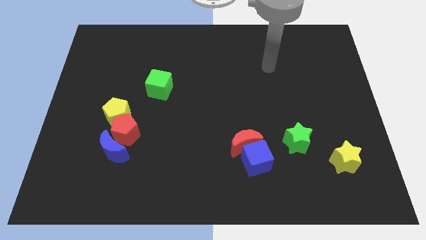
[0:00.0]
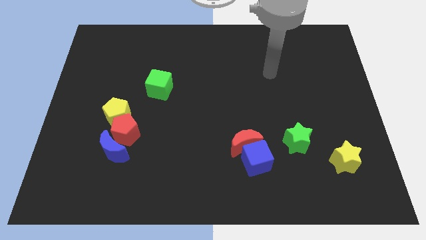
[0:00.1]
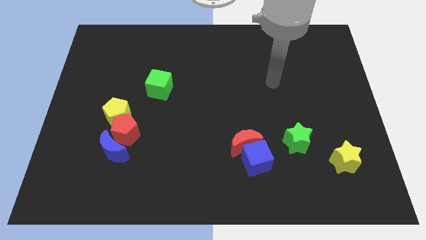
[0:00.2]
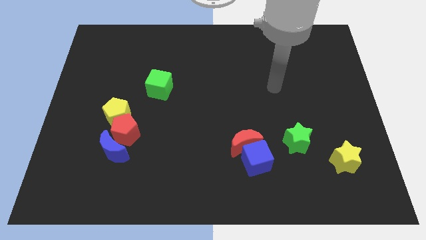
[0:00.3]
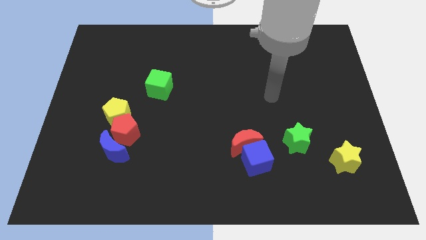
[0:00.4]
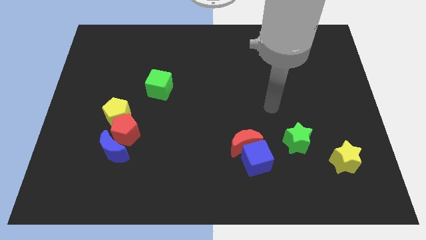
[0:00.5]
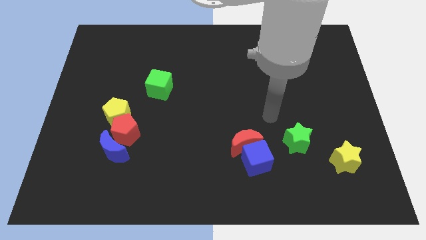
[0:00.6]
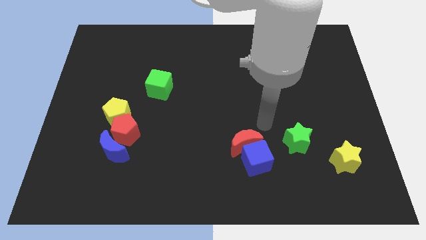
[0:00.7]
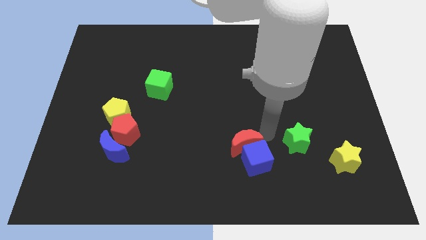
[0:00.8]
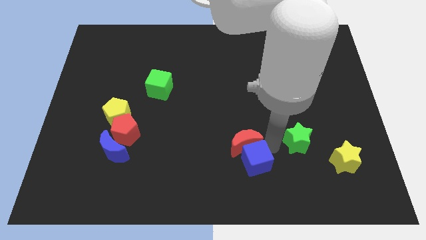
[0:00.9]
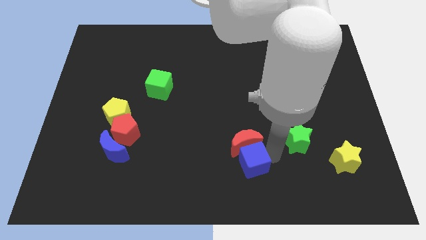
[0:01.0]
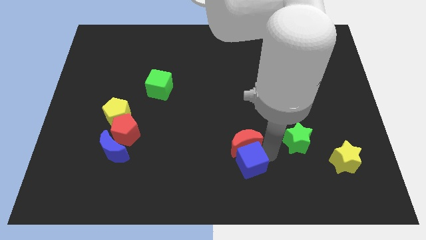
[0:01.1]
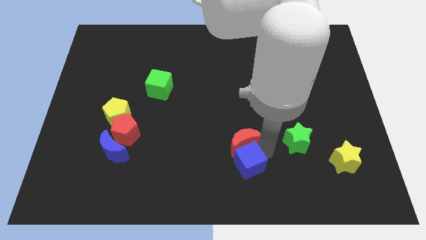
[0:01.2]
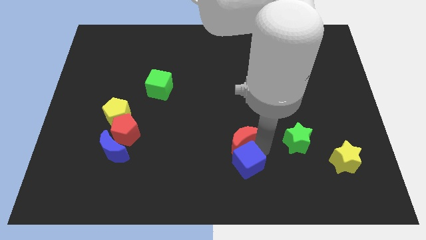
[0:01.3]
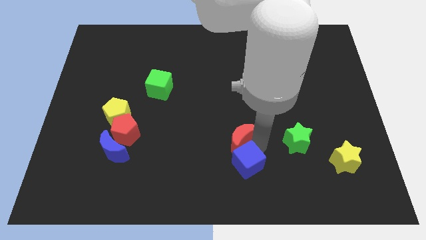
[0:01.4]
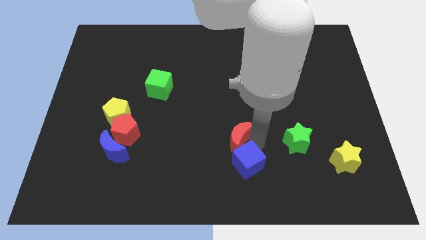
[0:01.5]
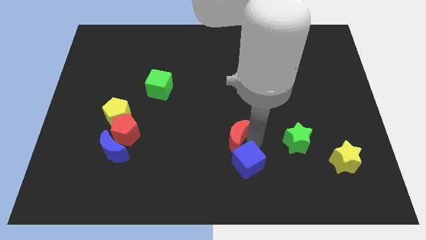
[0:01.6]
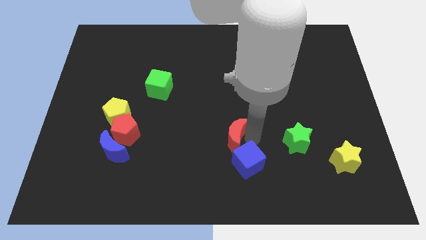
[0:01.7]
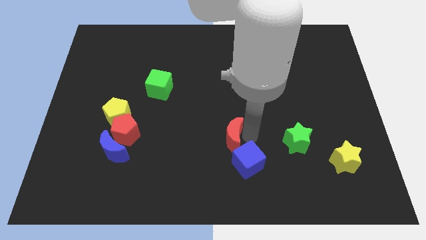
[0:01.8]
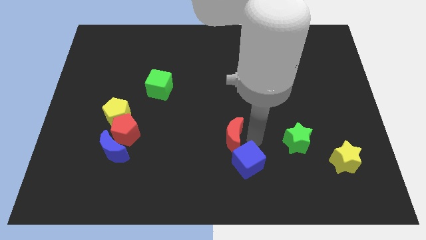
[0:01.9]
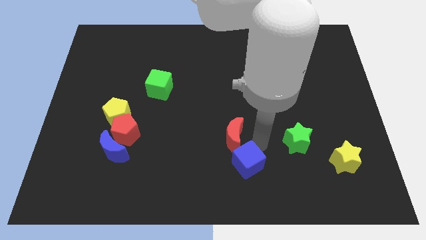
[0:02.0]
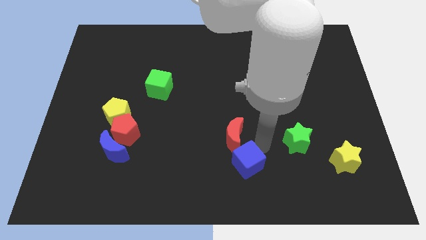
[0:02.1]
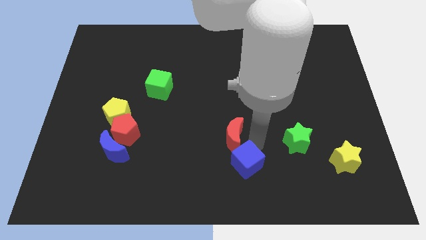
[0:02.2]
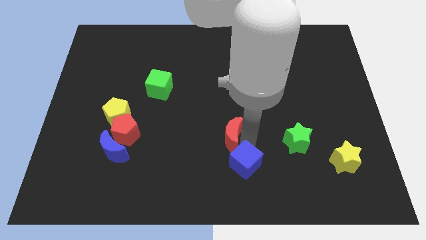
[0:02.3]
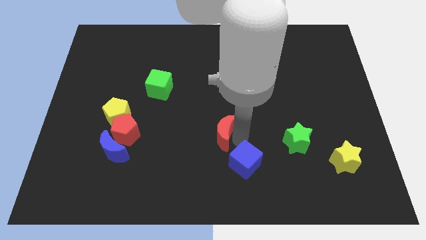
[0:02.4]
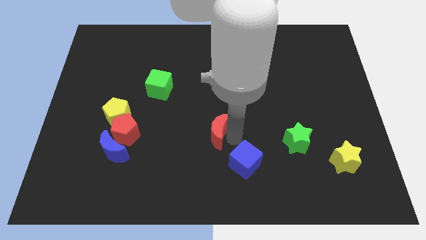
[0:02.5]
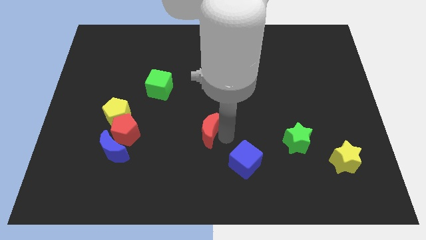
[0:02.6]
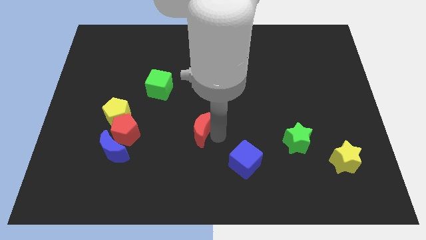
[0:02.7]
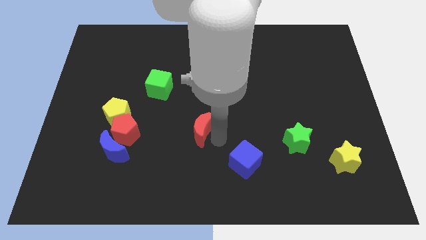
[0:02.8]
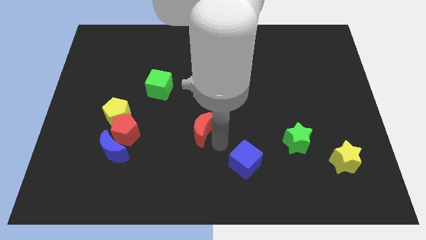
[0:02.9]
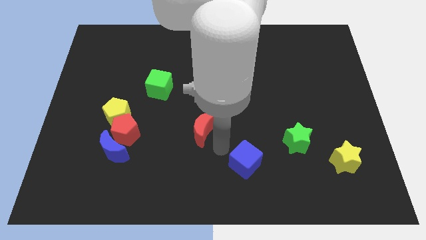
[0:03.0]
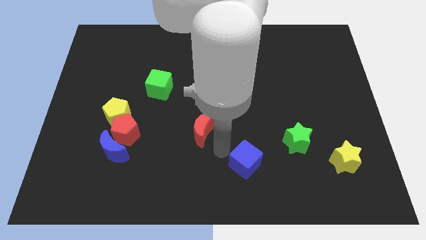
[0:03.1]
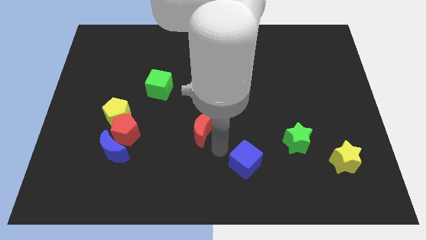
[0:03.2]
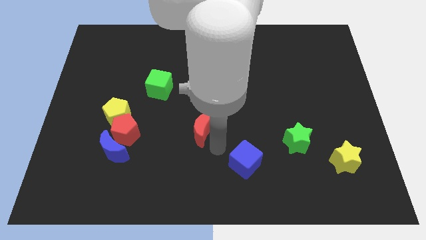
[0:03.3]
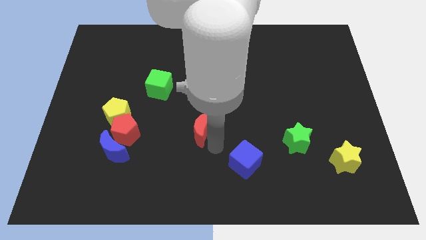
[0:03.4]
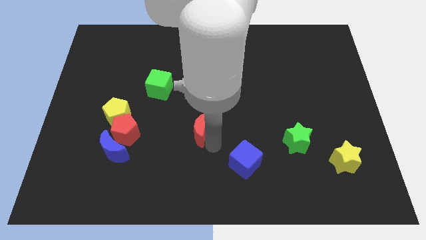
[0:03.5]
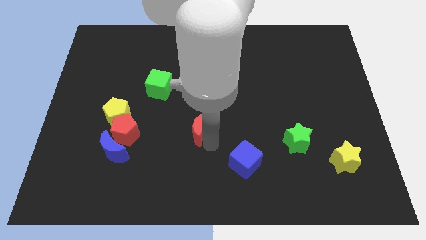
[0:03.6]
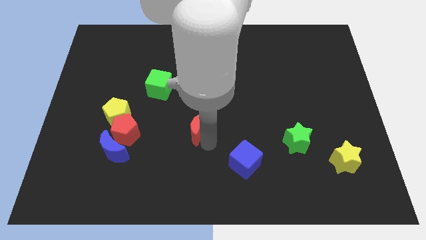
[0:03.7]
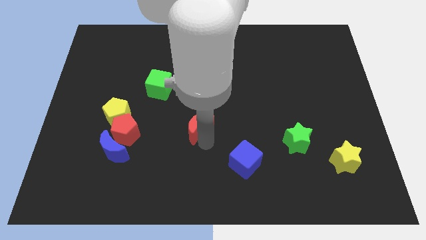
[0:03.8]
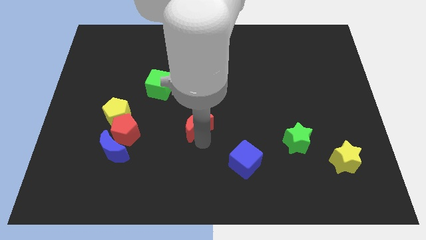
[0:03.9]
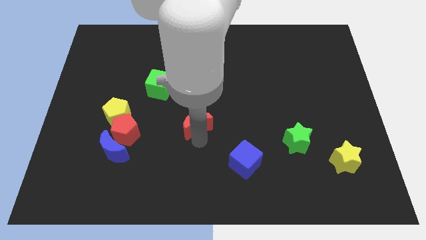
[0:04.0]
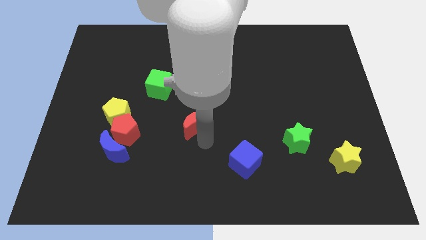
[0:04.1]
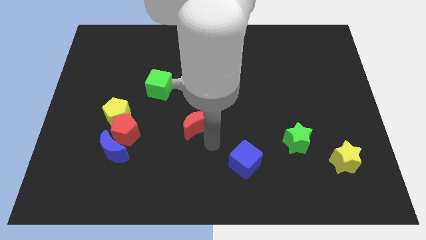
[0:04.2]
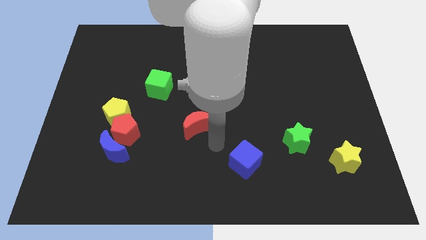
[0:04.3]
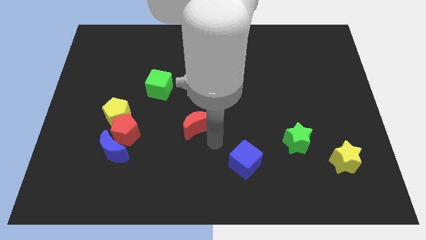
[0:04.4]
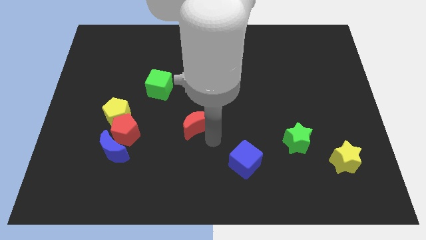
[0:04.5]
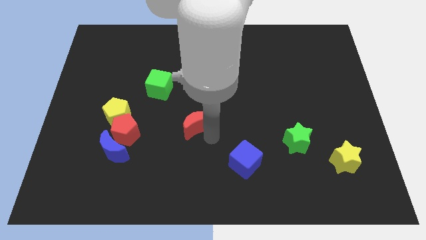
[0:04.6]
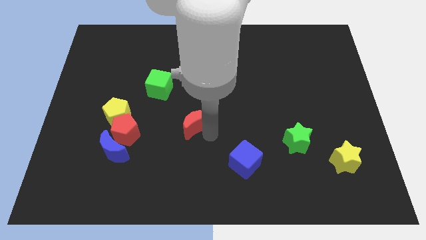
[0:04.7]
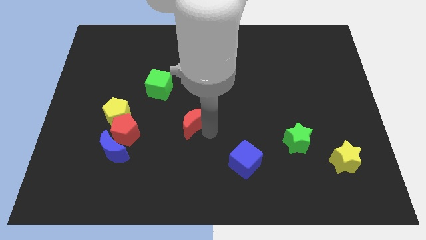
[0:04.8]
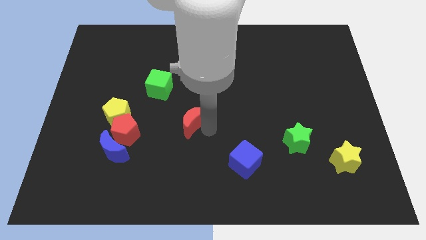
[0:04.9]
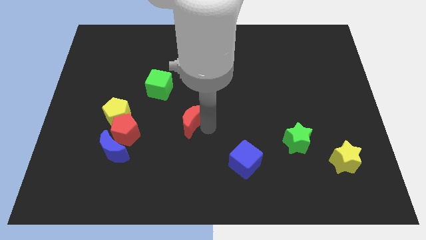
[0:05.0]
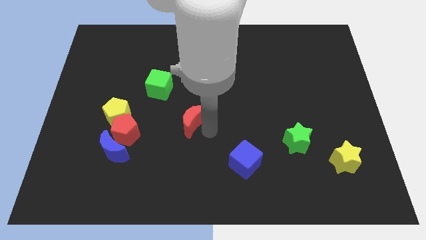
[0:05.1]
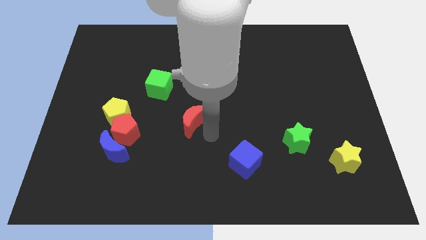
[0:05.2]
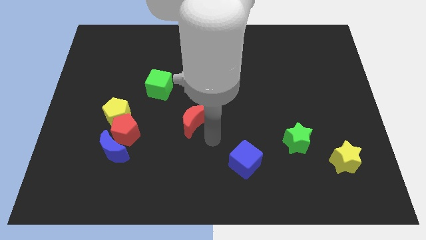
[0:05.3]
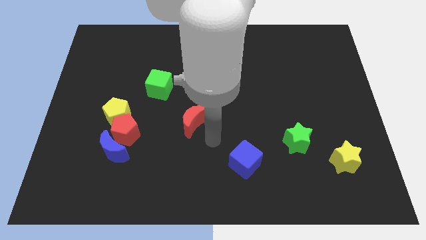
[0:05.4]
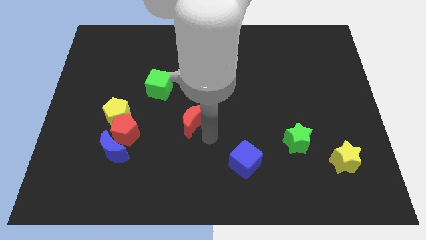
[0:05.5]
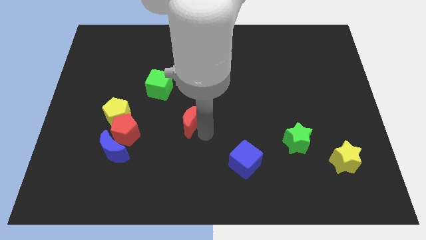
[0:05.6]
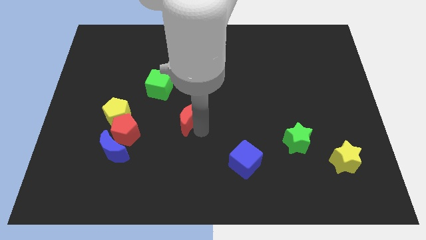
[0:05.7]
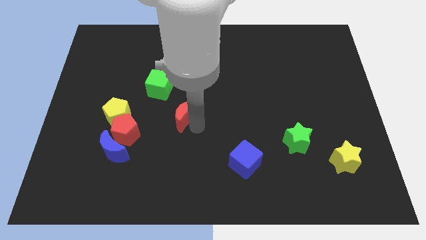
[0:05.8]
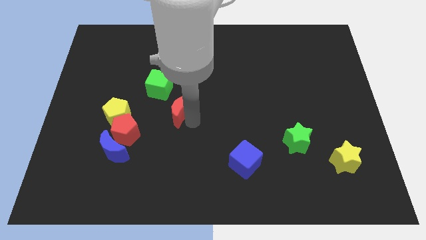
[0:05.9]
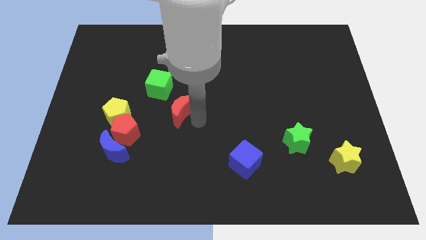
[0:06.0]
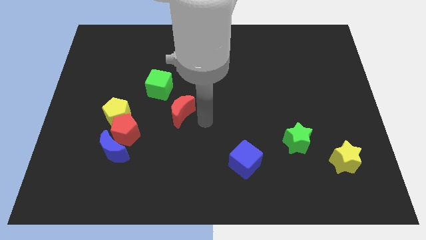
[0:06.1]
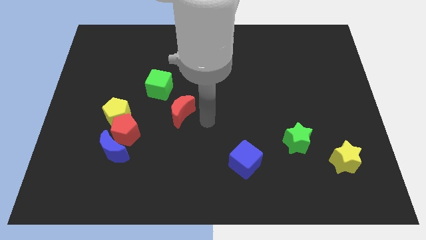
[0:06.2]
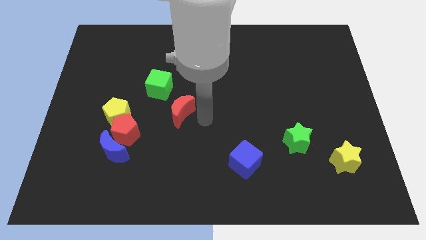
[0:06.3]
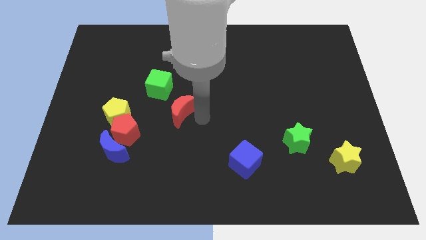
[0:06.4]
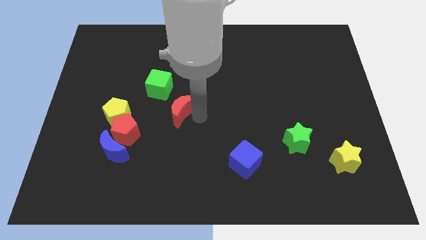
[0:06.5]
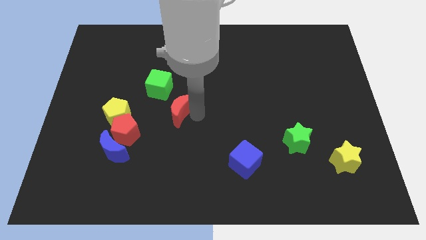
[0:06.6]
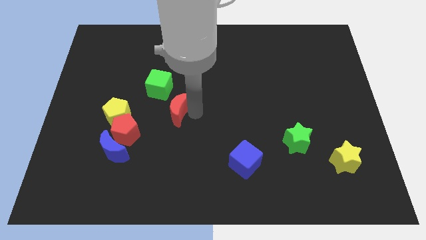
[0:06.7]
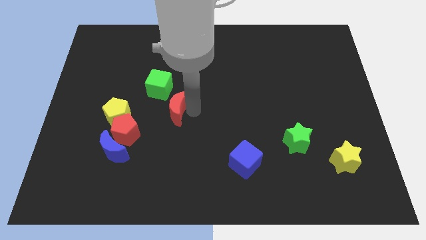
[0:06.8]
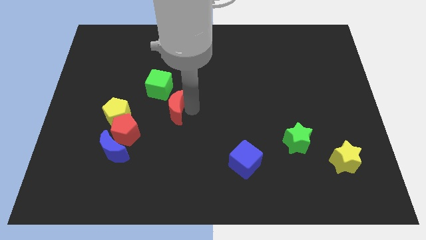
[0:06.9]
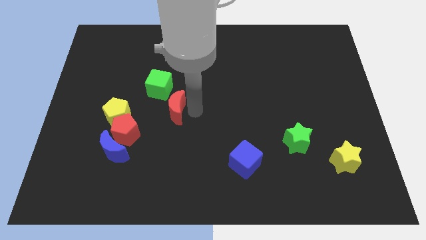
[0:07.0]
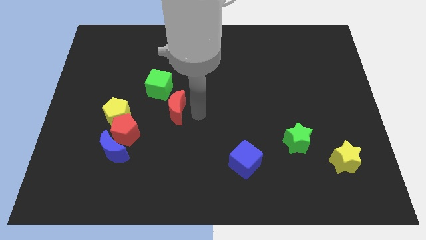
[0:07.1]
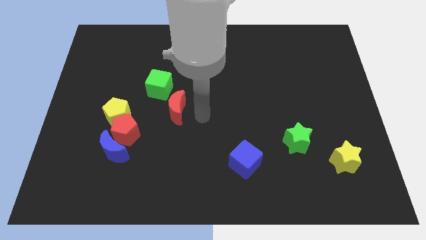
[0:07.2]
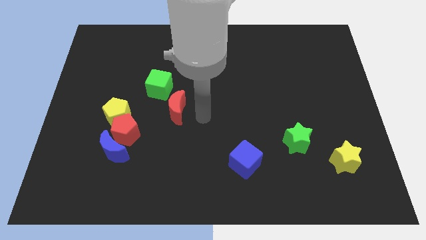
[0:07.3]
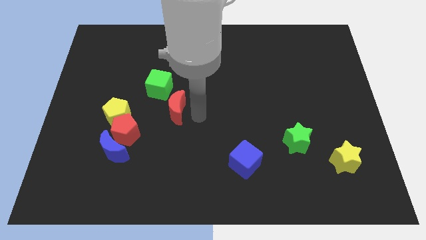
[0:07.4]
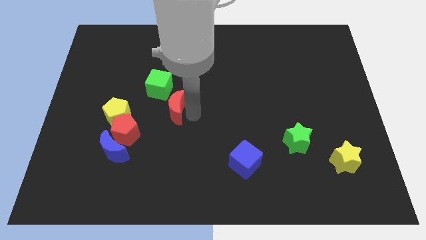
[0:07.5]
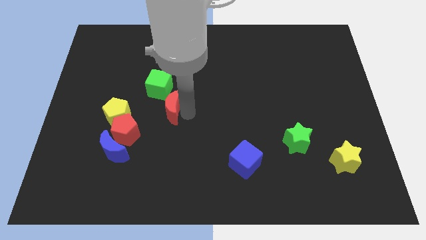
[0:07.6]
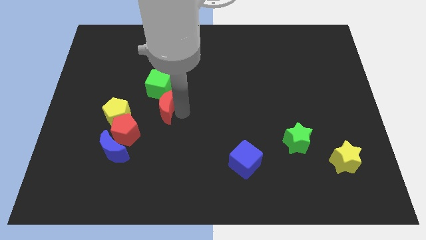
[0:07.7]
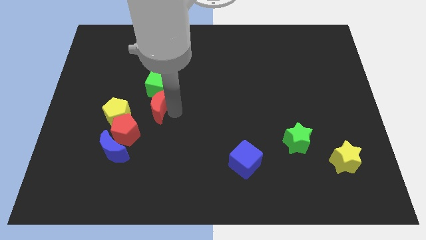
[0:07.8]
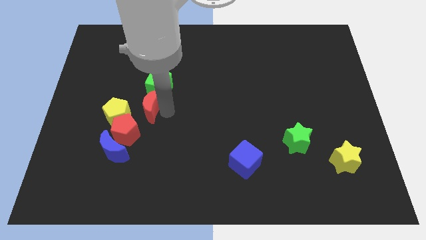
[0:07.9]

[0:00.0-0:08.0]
put the red moon to the top right of the yellow pentagon
